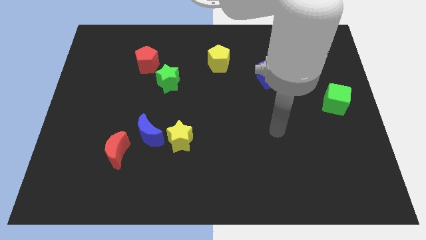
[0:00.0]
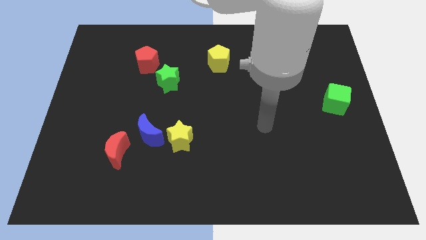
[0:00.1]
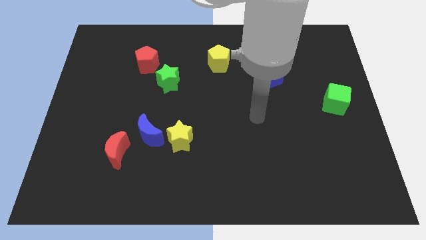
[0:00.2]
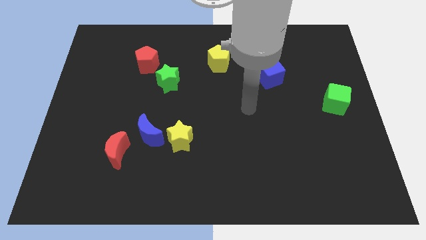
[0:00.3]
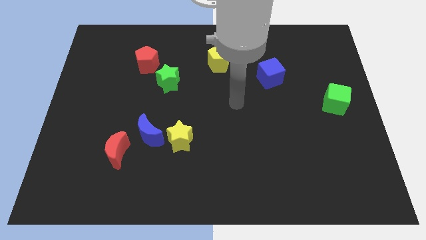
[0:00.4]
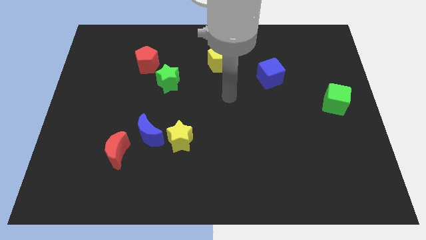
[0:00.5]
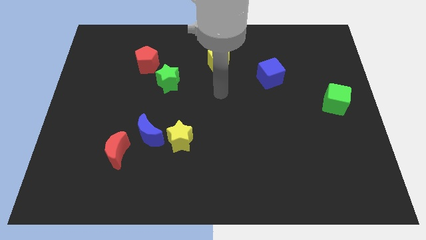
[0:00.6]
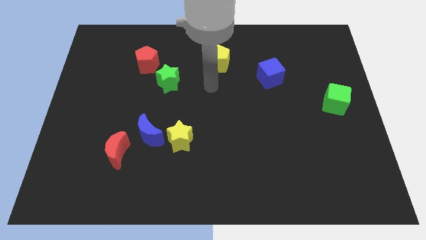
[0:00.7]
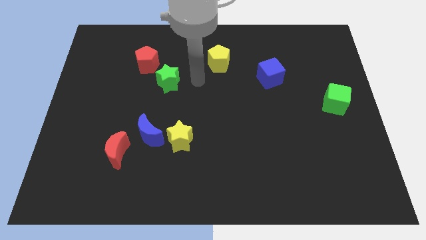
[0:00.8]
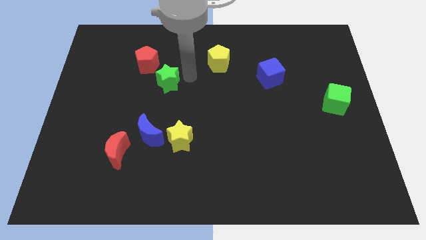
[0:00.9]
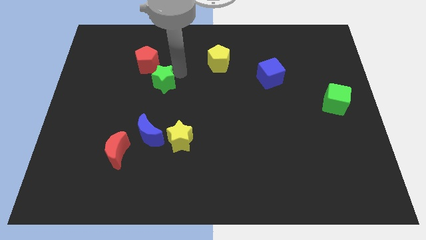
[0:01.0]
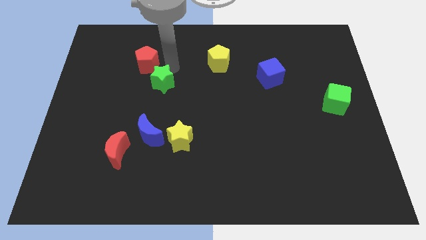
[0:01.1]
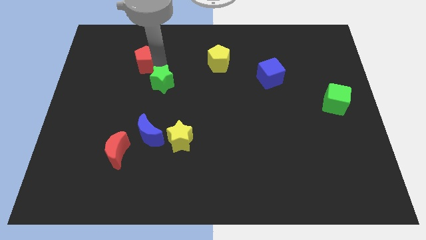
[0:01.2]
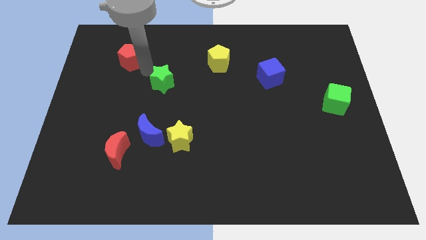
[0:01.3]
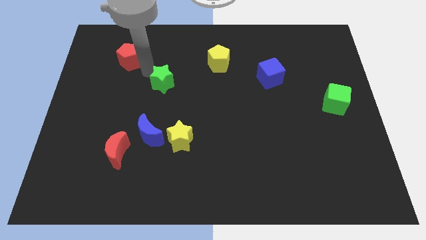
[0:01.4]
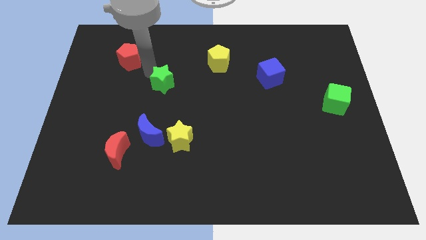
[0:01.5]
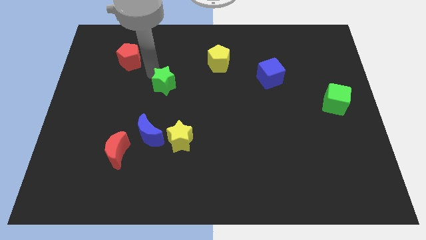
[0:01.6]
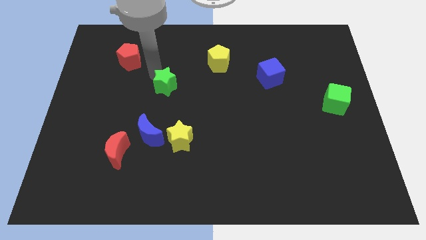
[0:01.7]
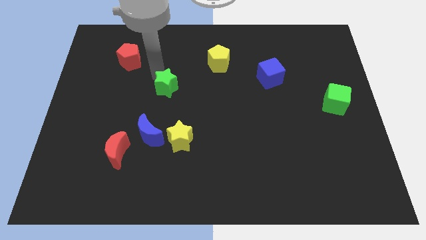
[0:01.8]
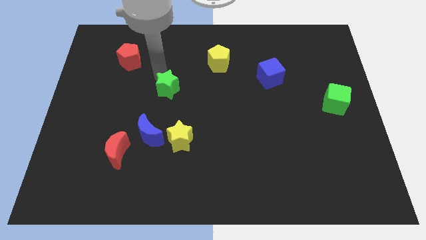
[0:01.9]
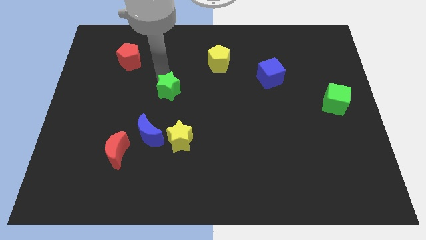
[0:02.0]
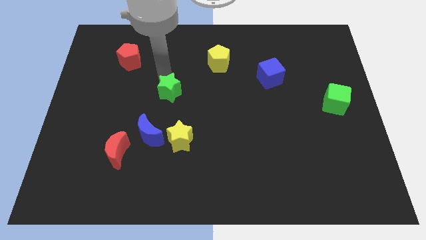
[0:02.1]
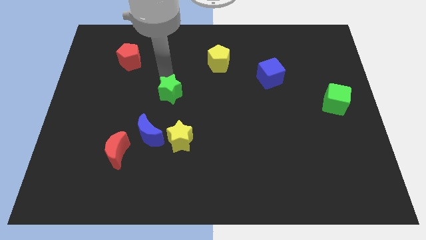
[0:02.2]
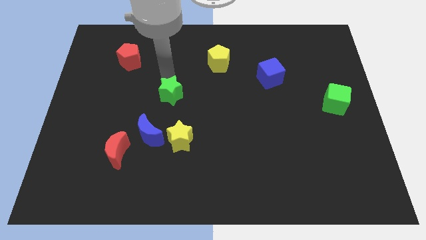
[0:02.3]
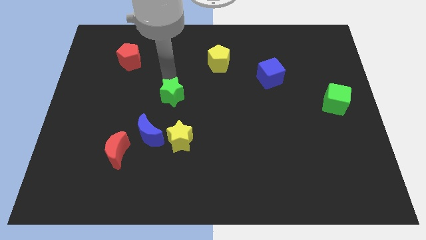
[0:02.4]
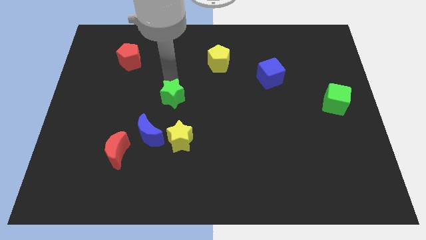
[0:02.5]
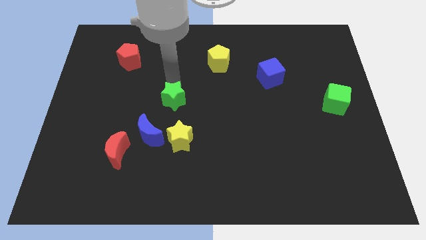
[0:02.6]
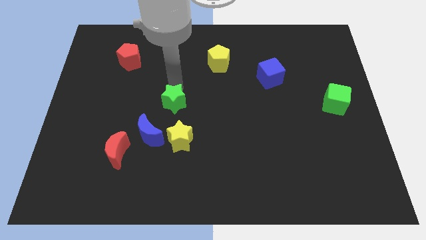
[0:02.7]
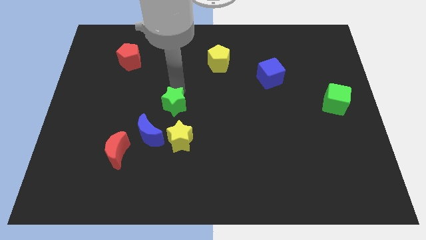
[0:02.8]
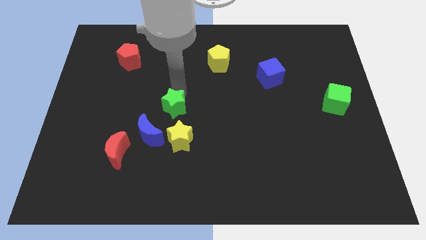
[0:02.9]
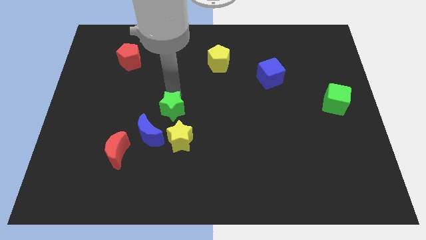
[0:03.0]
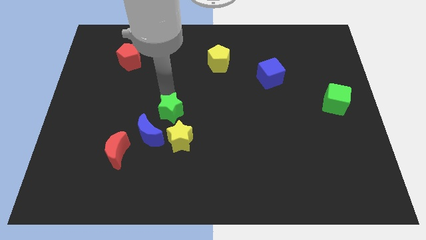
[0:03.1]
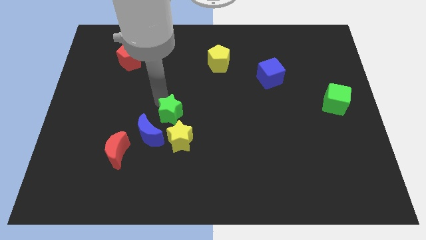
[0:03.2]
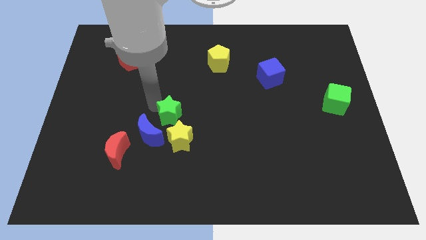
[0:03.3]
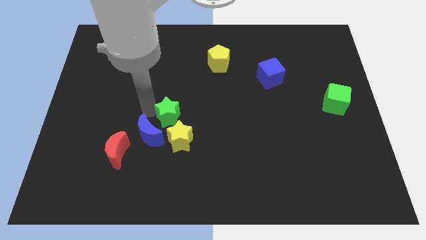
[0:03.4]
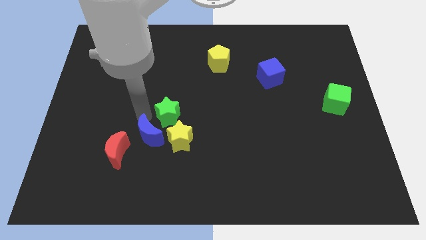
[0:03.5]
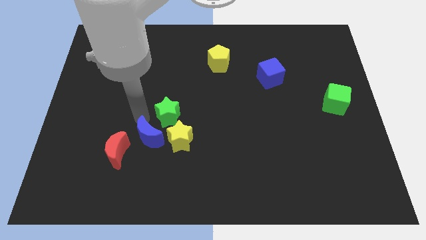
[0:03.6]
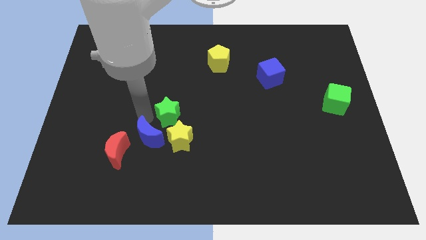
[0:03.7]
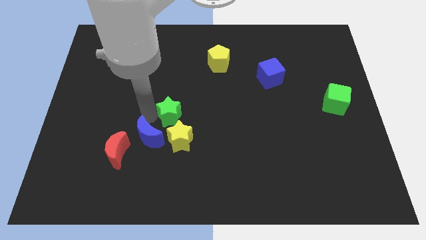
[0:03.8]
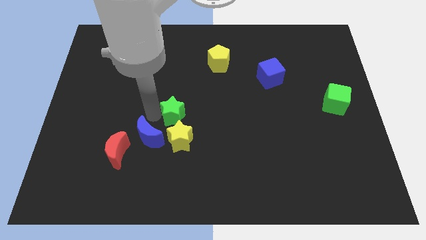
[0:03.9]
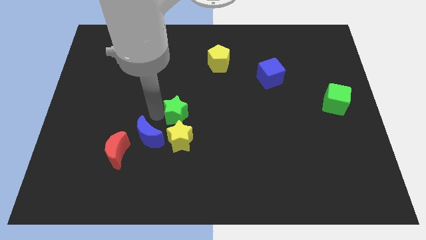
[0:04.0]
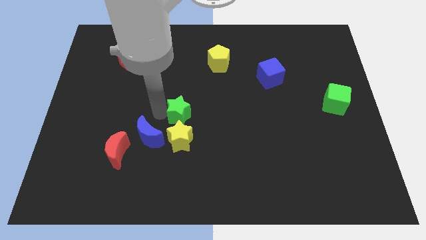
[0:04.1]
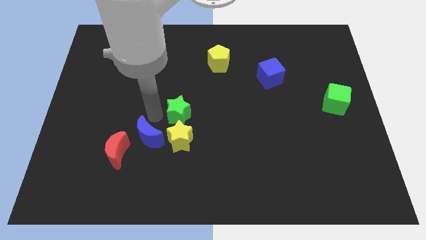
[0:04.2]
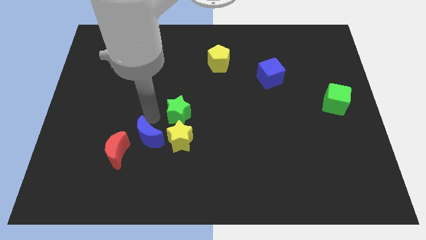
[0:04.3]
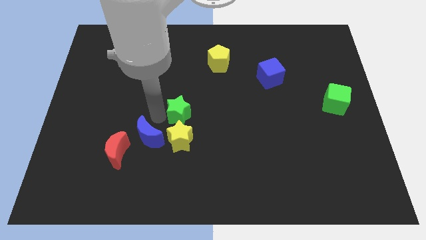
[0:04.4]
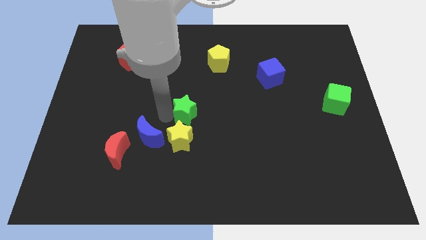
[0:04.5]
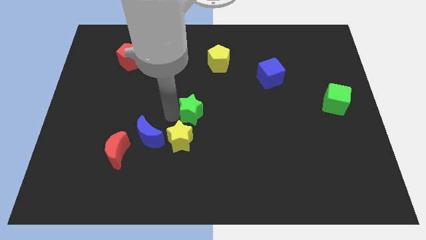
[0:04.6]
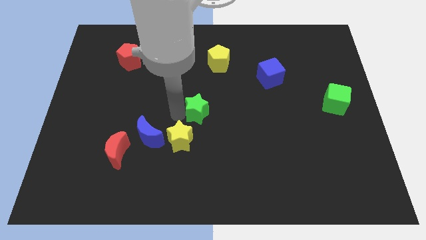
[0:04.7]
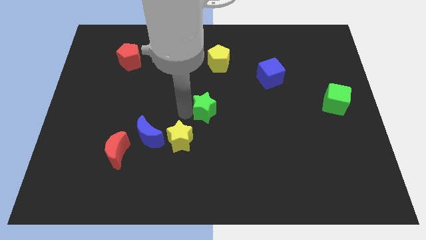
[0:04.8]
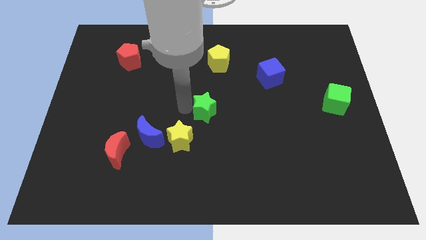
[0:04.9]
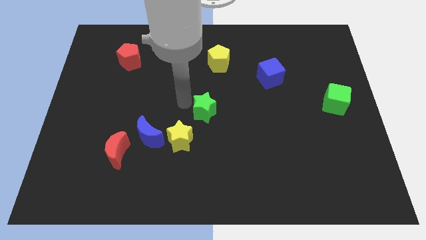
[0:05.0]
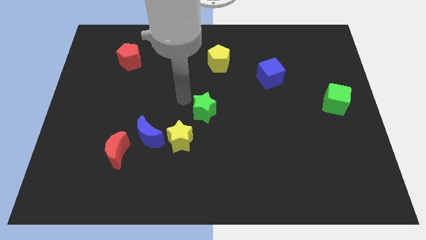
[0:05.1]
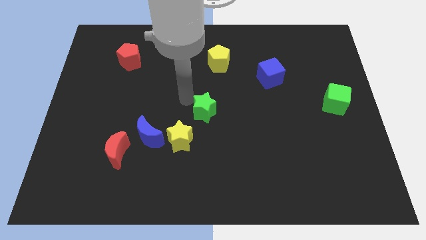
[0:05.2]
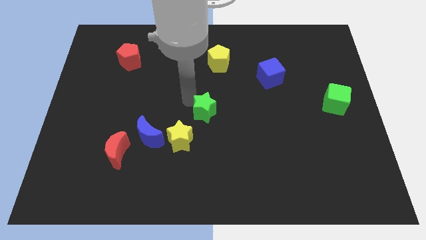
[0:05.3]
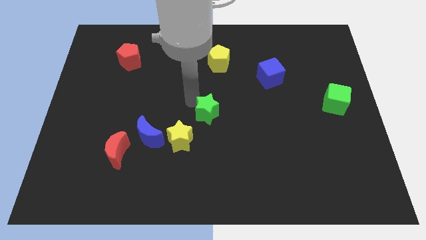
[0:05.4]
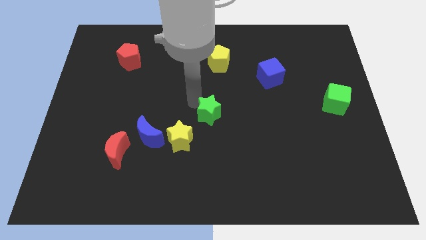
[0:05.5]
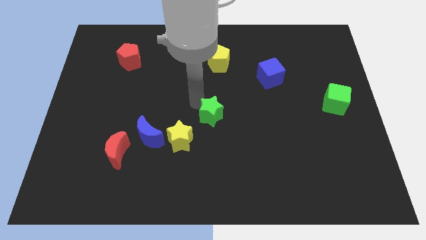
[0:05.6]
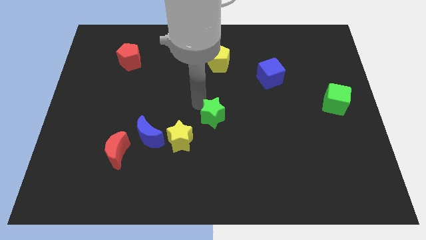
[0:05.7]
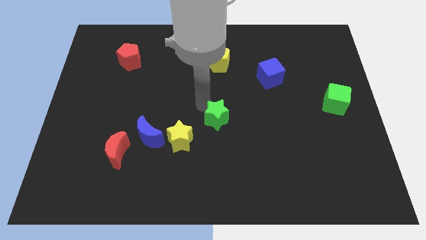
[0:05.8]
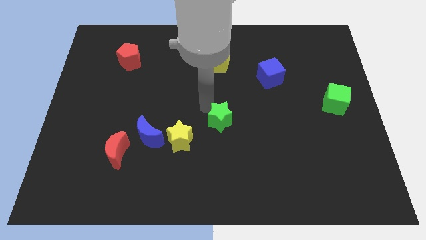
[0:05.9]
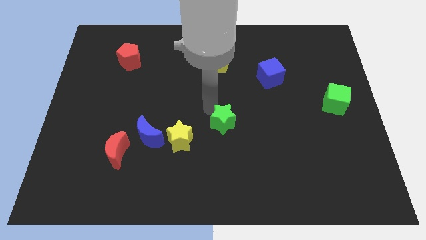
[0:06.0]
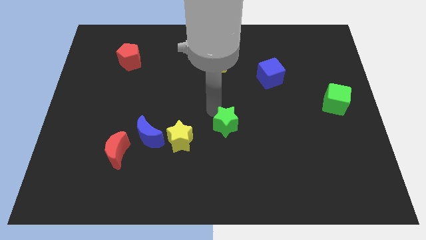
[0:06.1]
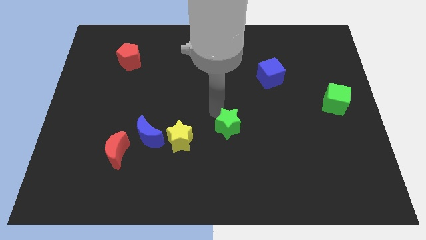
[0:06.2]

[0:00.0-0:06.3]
push the green star downwards and right

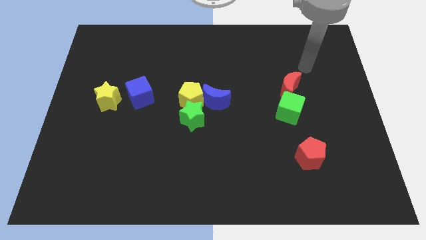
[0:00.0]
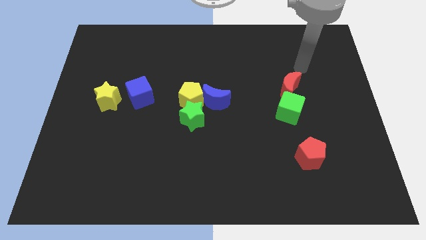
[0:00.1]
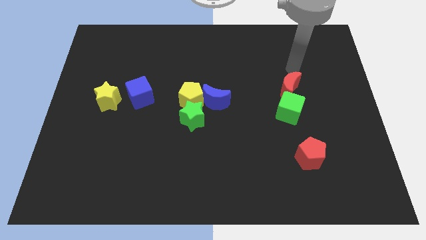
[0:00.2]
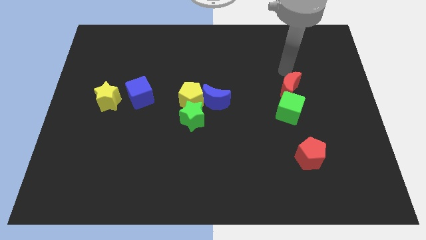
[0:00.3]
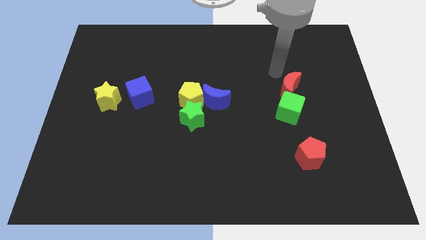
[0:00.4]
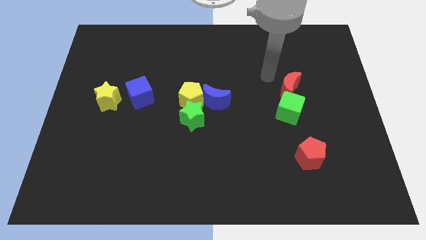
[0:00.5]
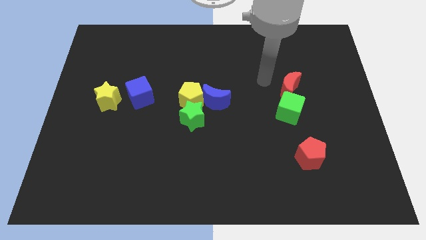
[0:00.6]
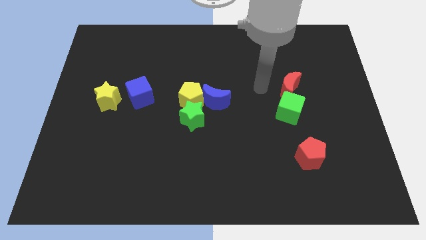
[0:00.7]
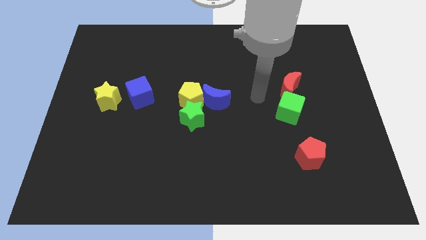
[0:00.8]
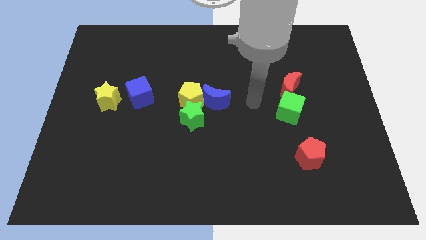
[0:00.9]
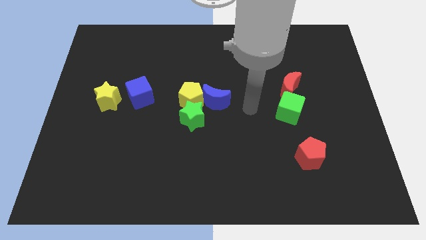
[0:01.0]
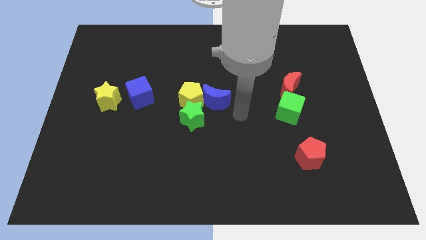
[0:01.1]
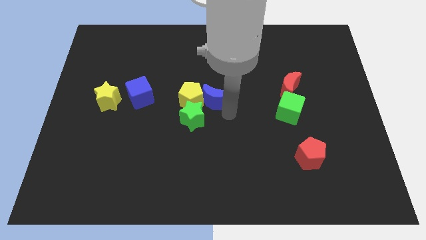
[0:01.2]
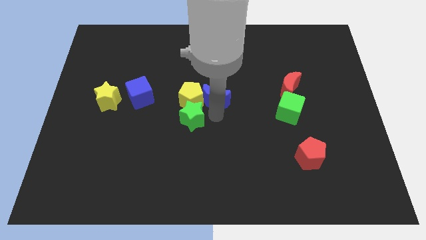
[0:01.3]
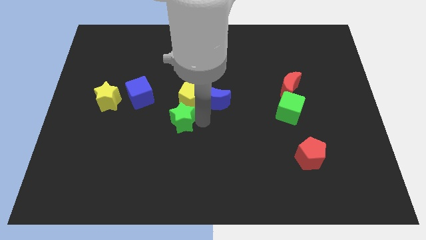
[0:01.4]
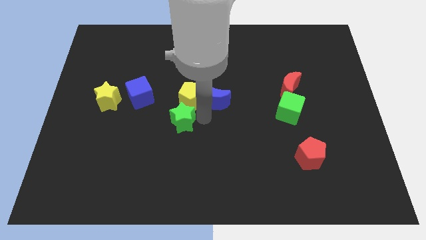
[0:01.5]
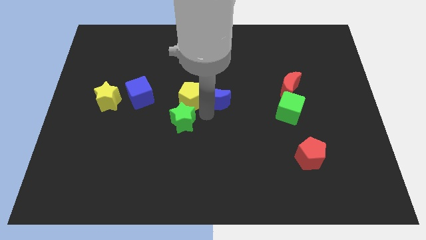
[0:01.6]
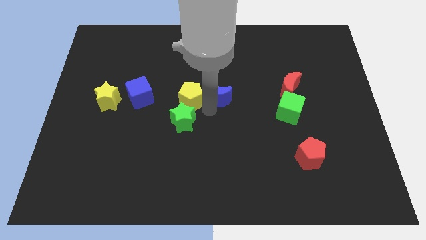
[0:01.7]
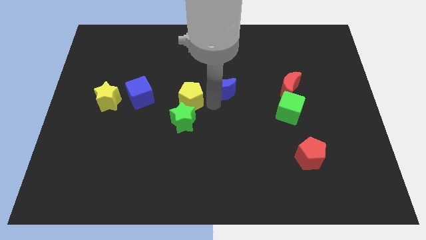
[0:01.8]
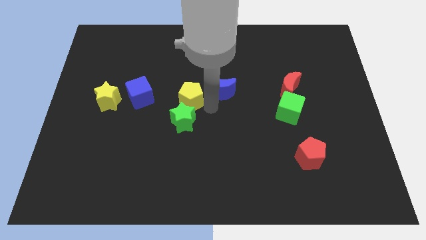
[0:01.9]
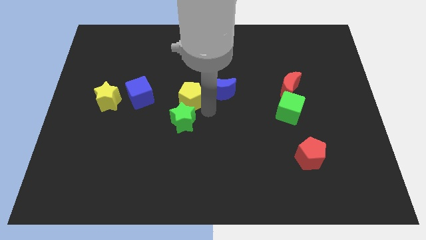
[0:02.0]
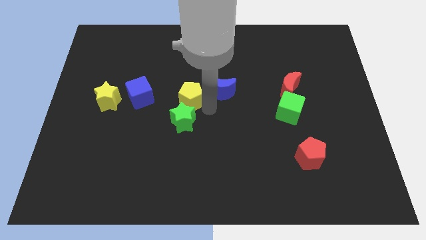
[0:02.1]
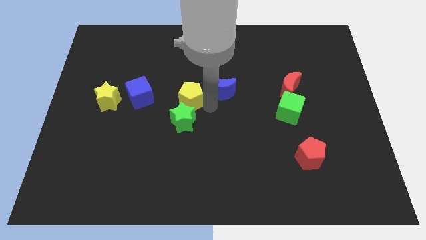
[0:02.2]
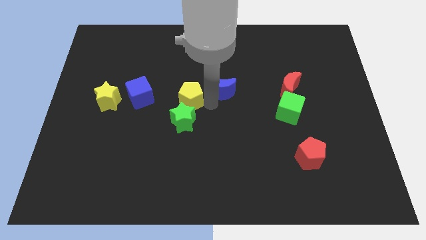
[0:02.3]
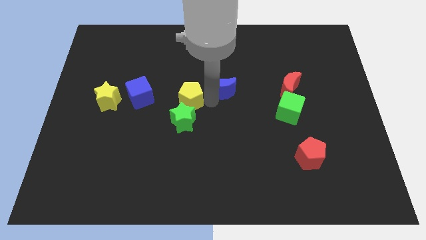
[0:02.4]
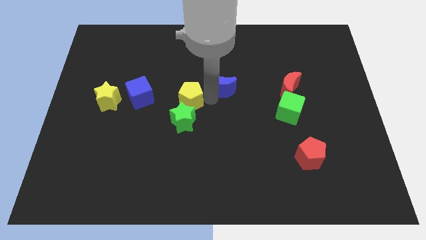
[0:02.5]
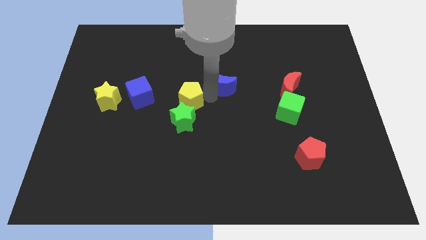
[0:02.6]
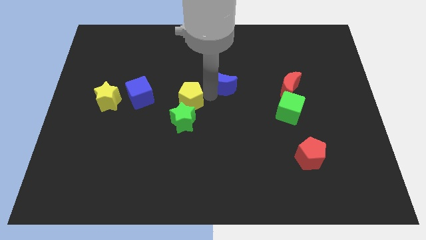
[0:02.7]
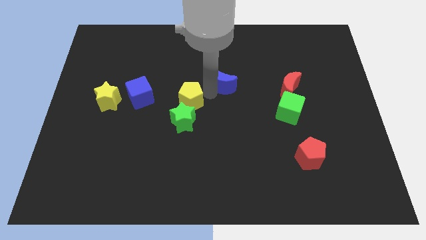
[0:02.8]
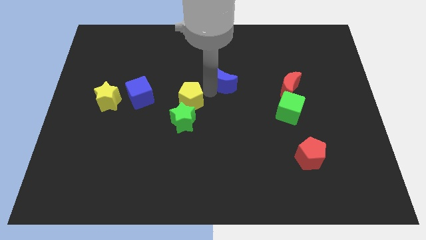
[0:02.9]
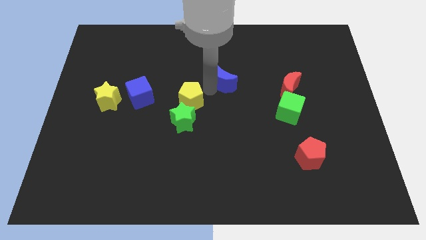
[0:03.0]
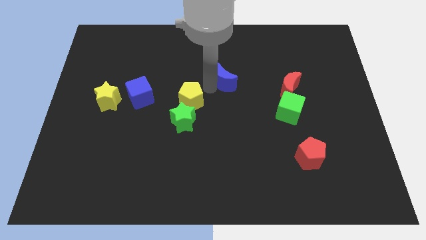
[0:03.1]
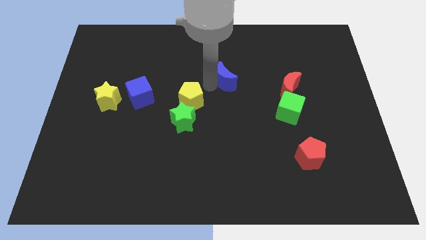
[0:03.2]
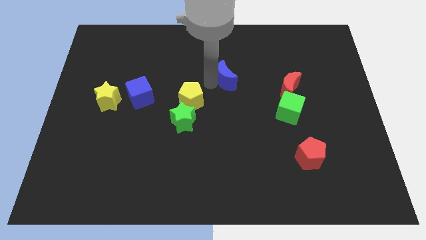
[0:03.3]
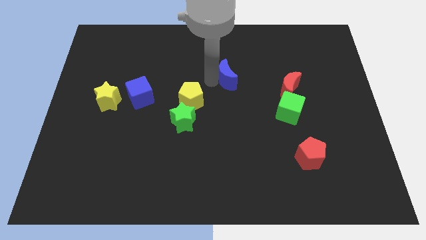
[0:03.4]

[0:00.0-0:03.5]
move the blue moon diagonally upwards and right a little bit
